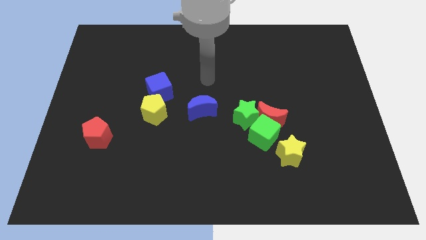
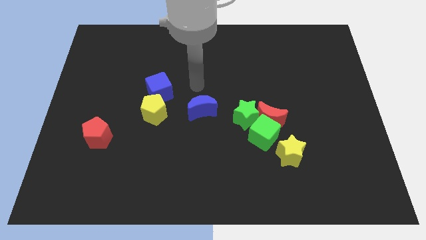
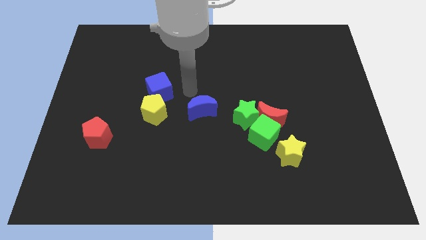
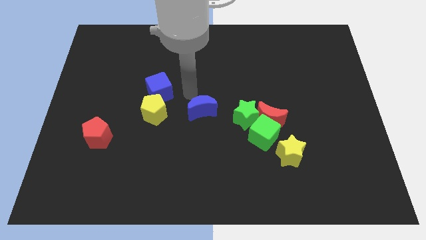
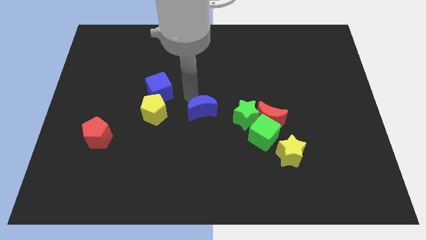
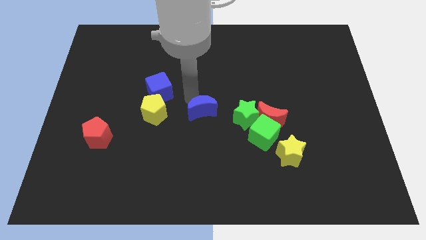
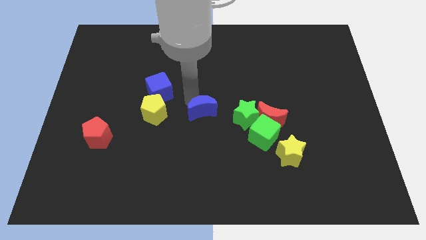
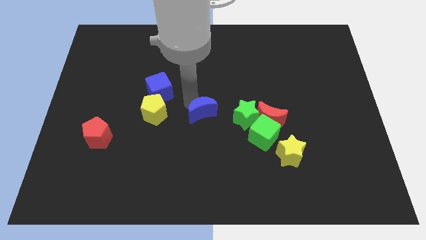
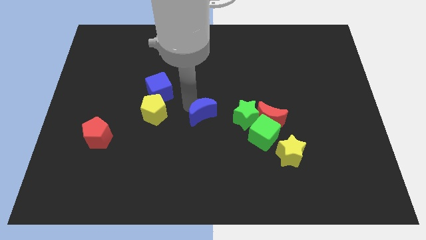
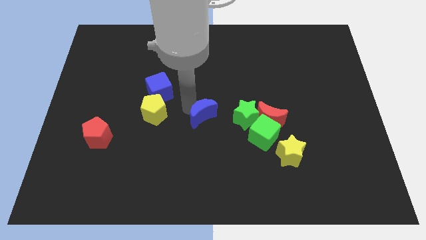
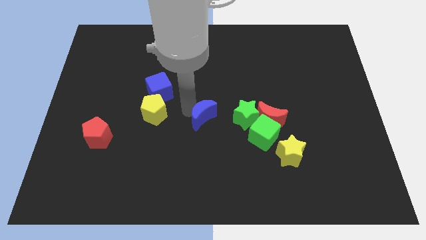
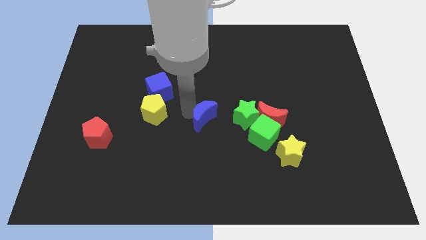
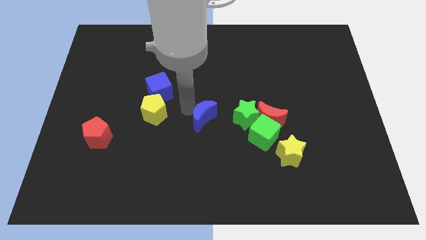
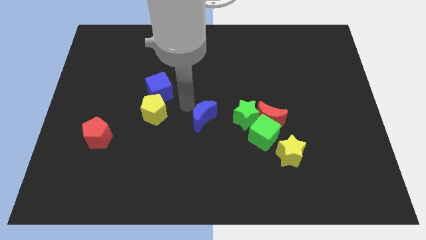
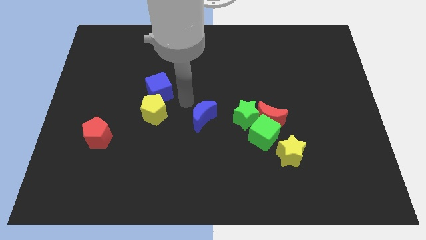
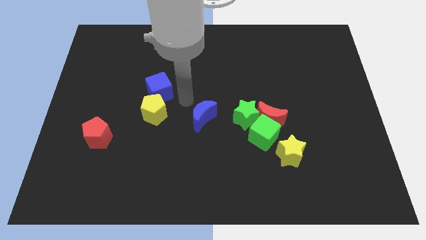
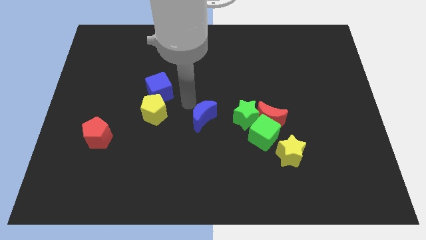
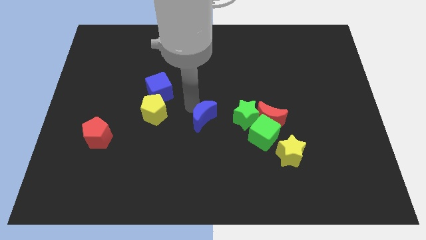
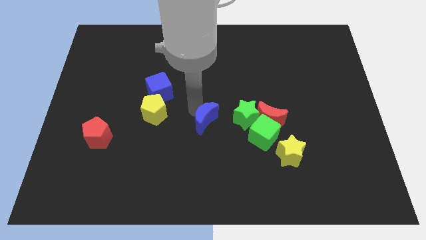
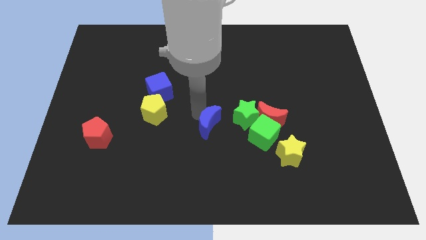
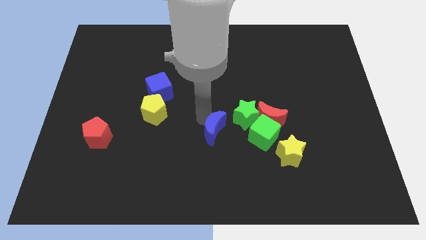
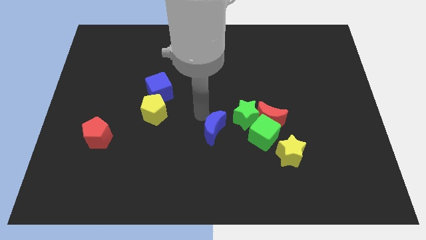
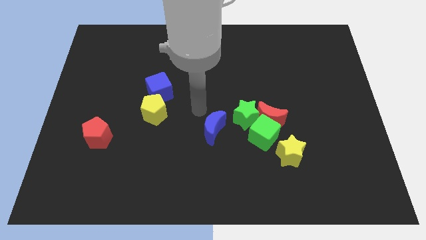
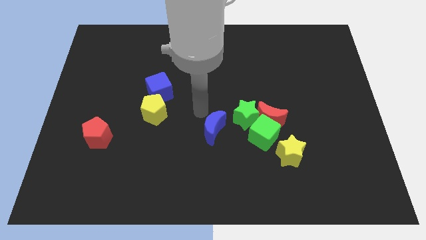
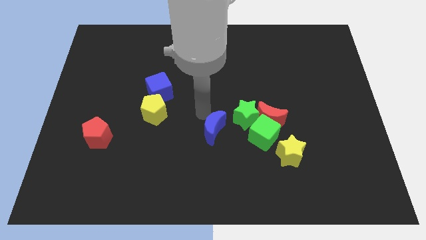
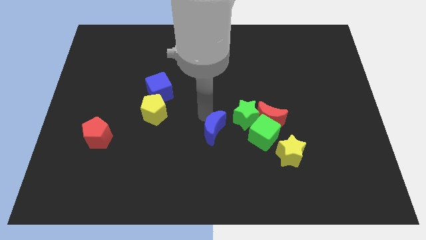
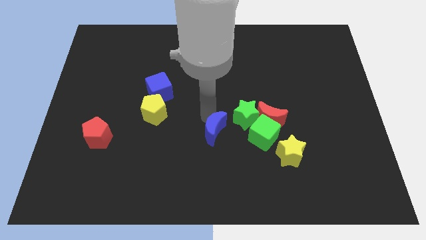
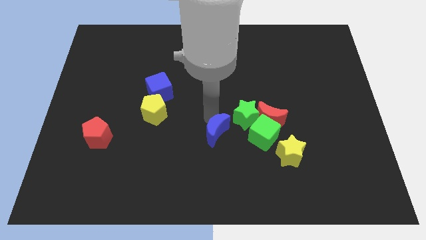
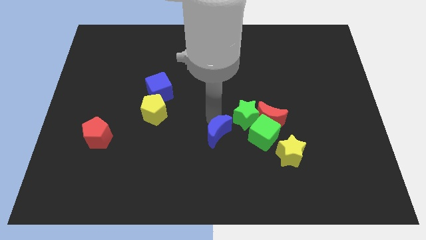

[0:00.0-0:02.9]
move the blue moon a bit diagonally down and right

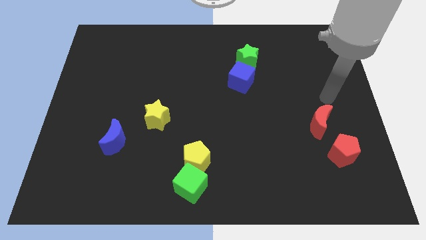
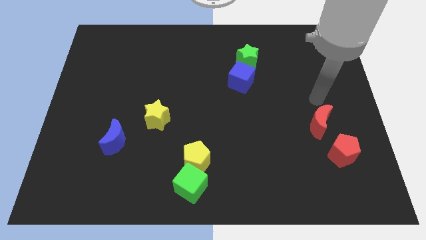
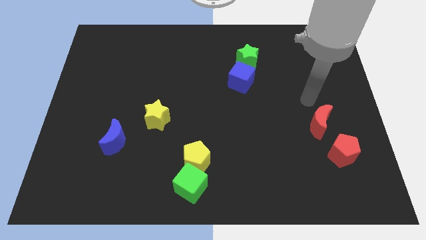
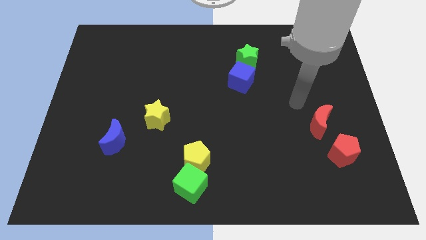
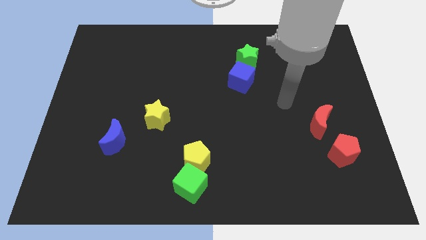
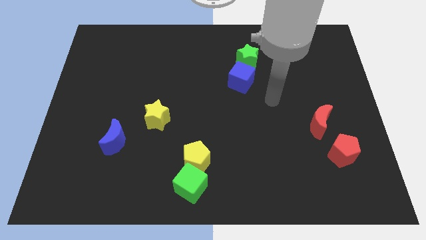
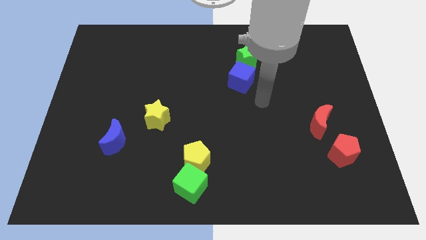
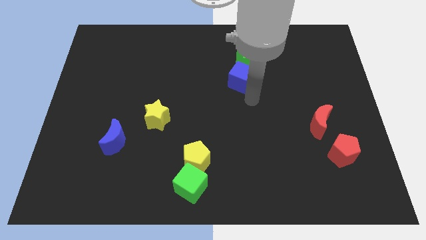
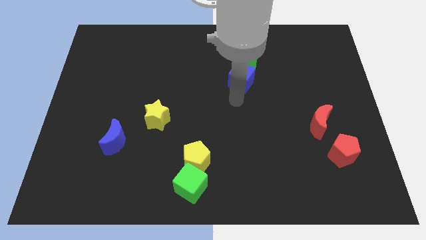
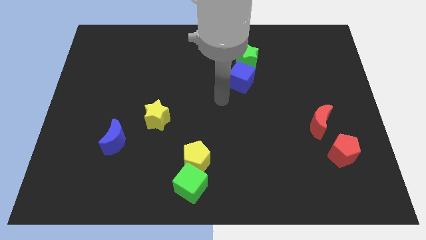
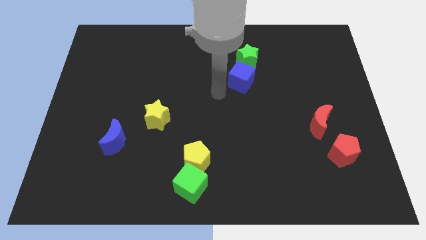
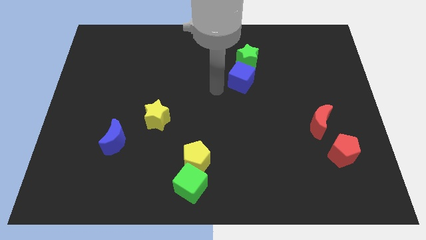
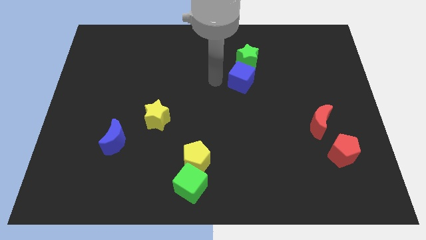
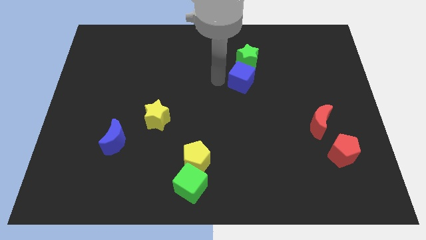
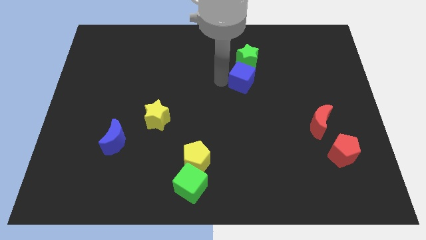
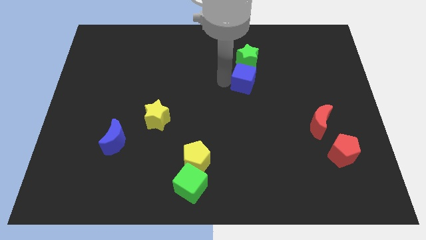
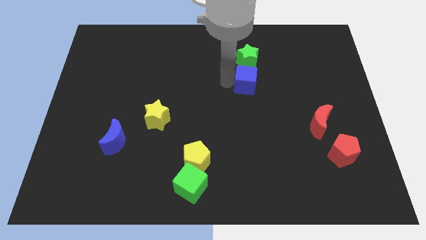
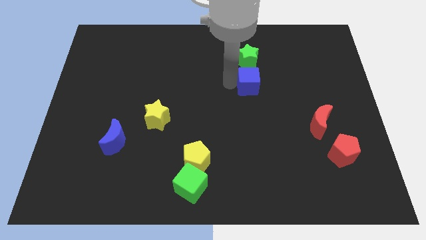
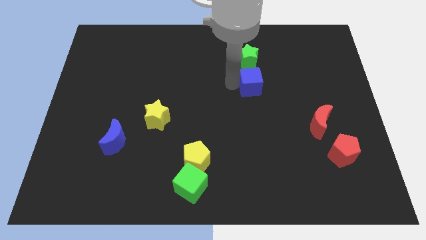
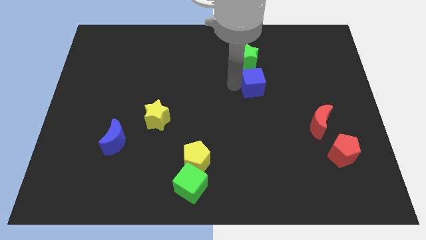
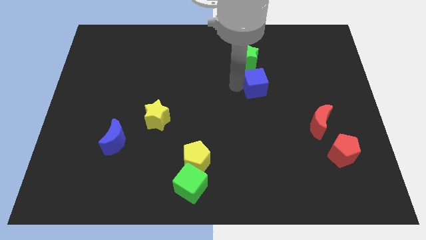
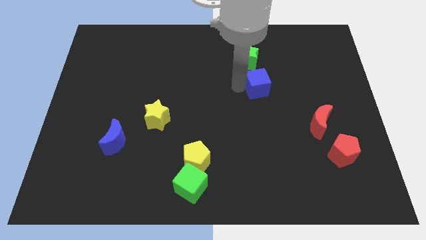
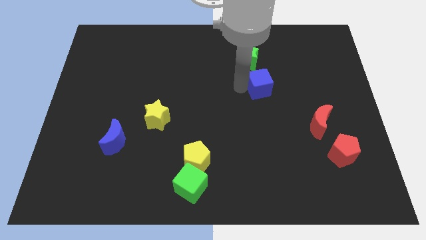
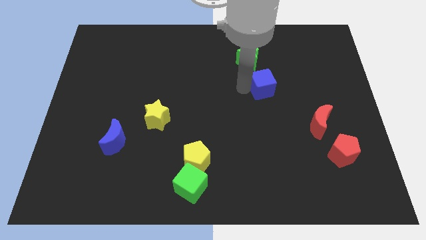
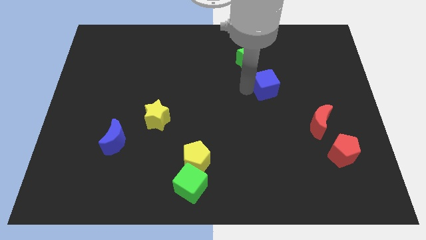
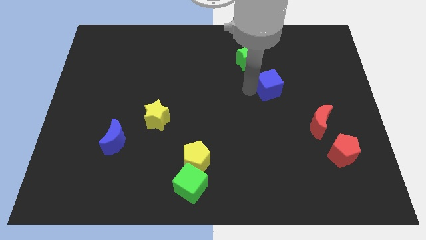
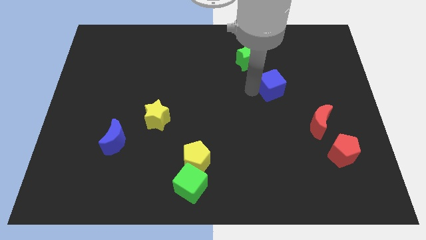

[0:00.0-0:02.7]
slide the blue cube a little bit right

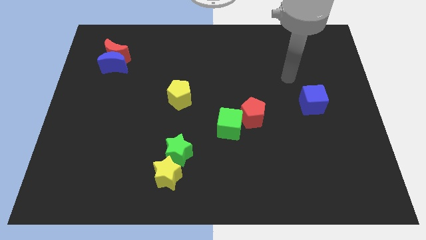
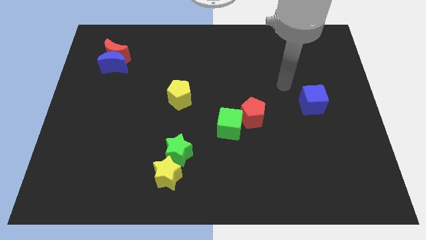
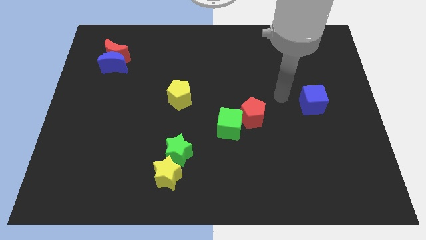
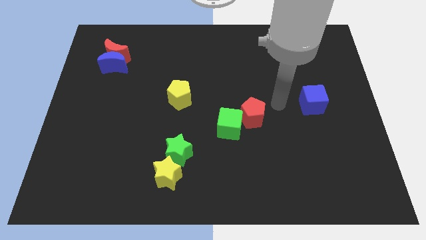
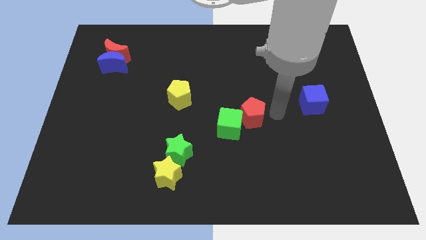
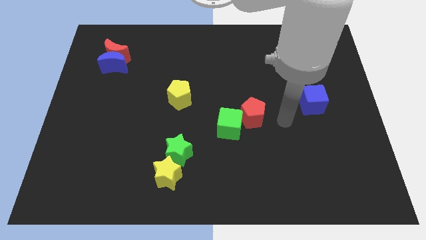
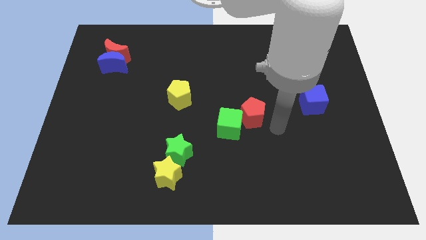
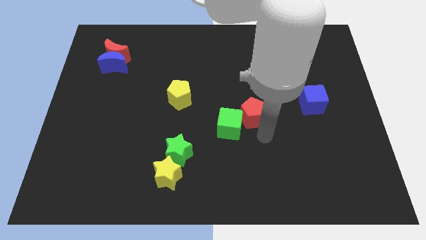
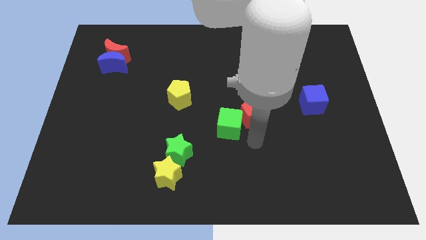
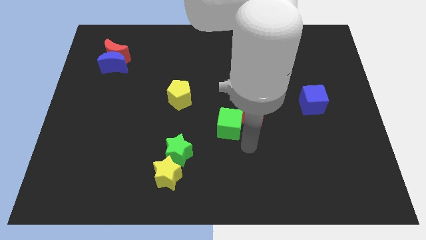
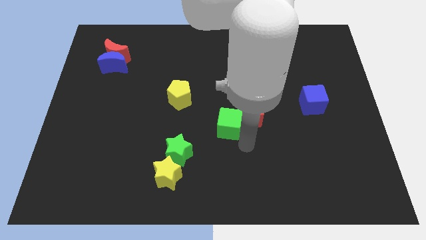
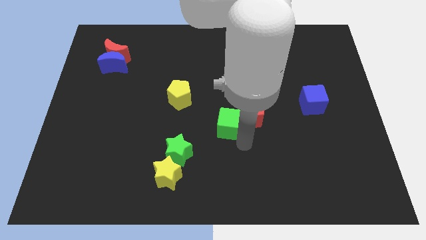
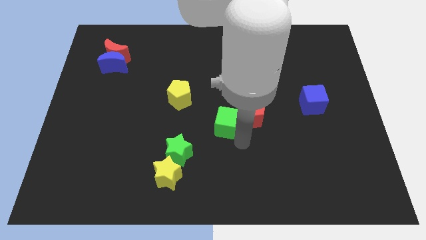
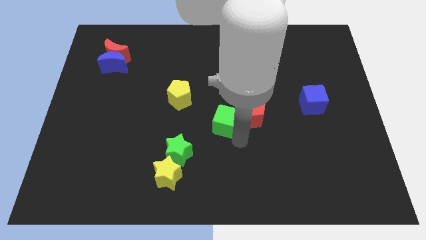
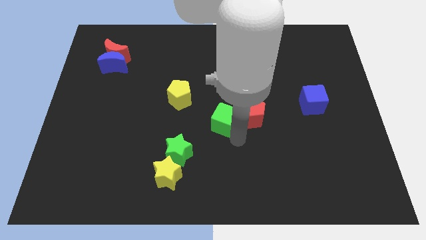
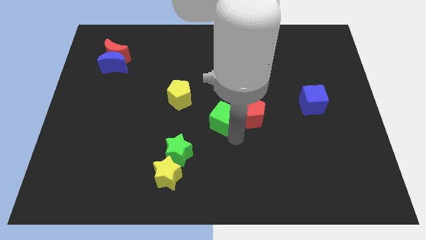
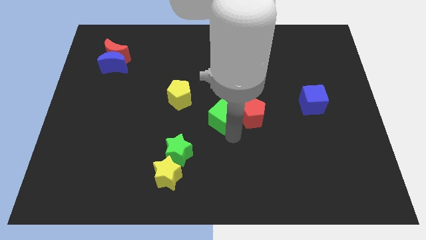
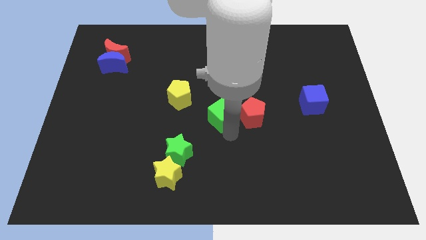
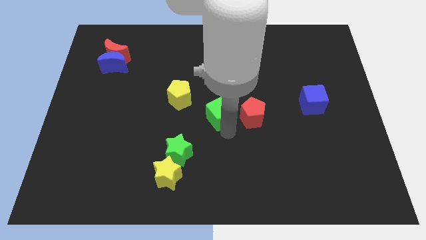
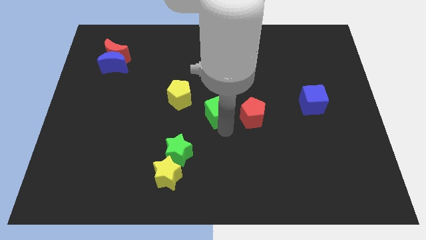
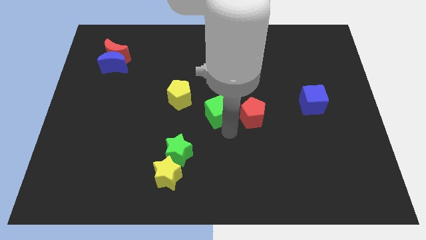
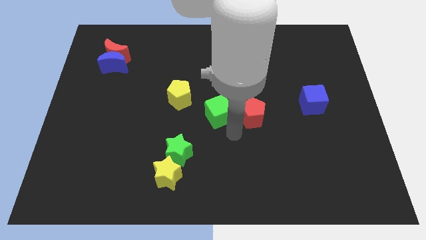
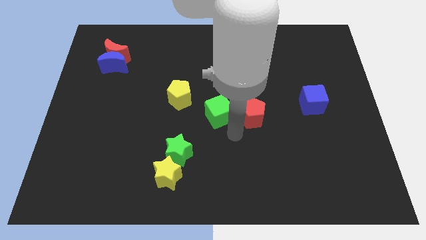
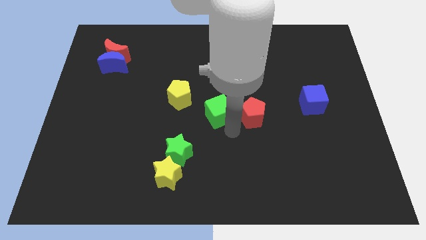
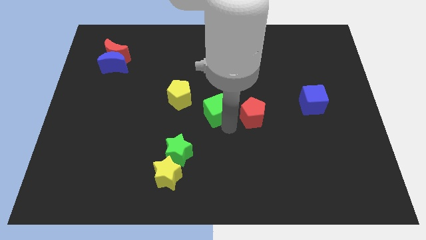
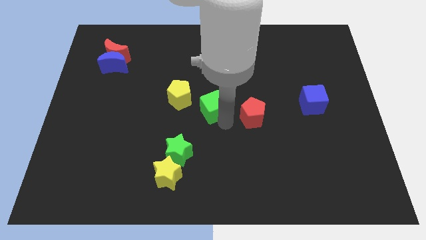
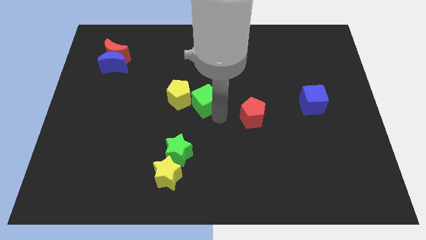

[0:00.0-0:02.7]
move the green cube a little up and left
